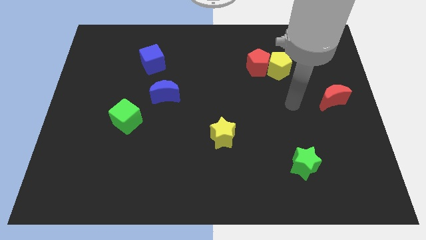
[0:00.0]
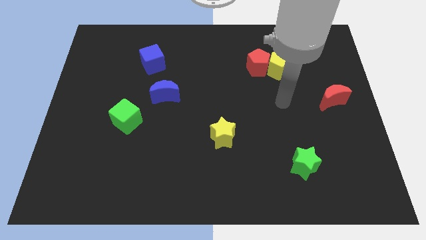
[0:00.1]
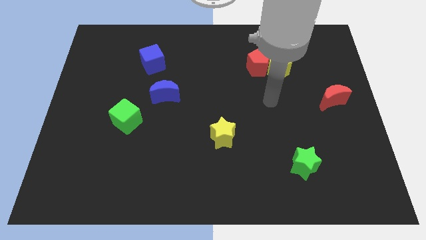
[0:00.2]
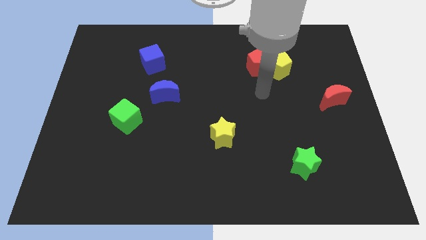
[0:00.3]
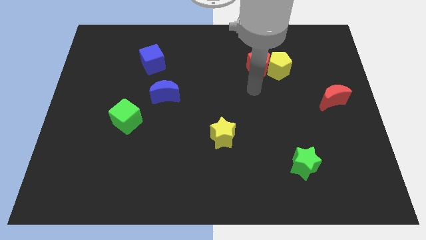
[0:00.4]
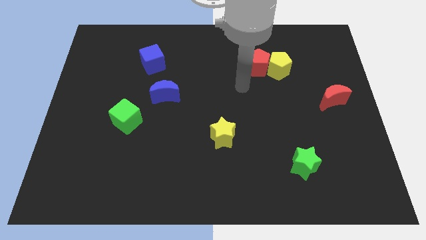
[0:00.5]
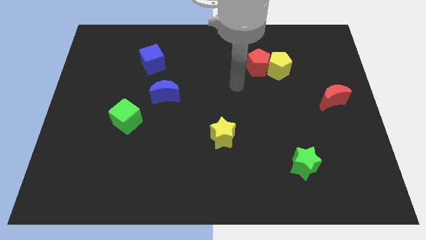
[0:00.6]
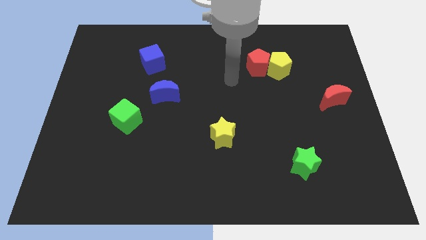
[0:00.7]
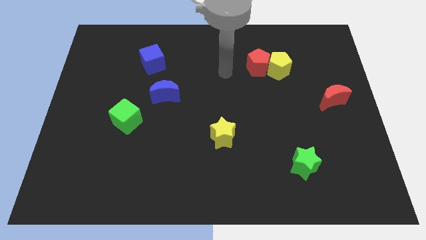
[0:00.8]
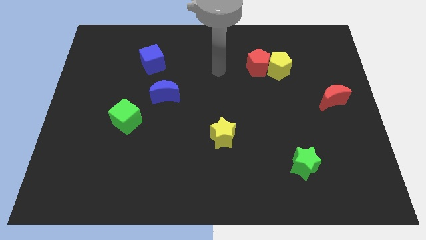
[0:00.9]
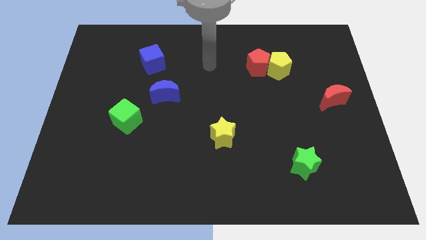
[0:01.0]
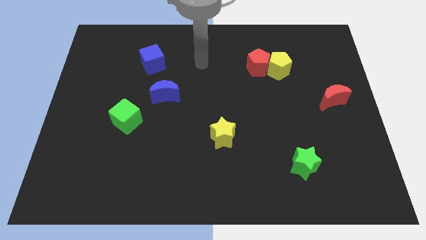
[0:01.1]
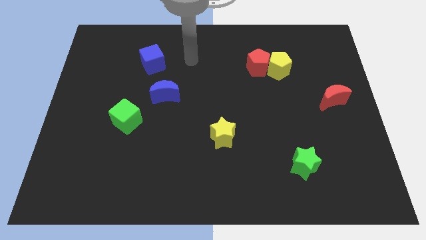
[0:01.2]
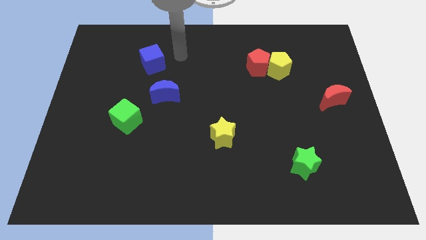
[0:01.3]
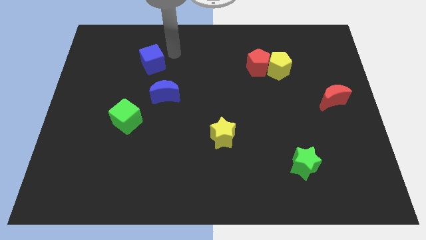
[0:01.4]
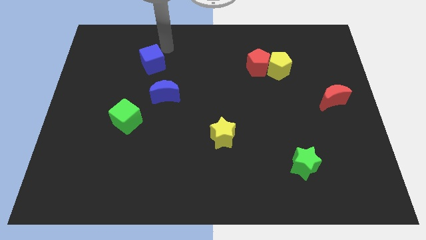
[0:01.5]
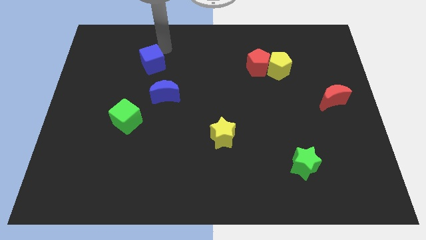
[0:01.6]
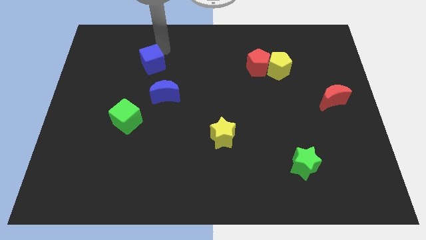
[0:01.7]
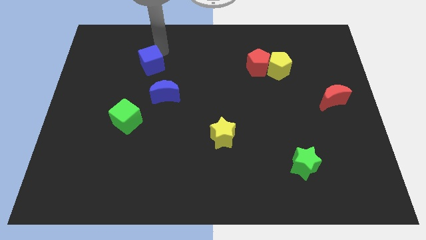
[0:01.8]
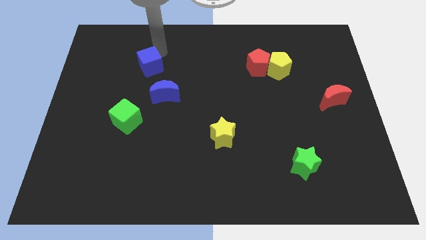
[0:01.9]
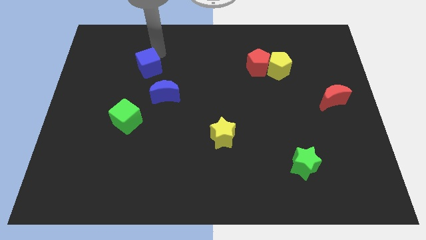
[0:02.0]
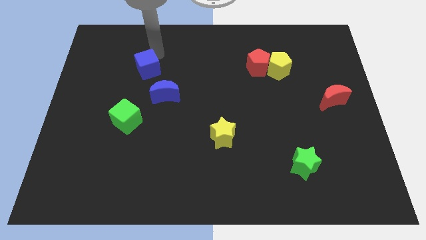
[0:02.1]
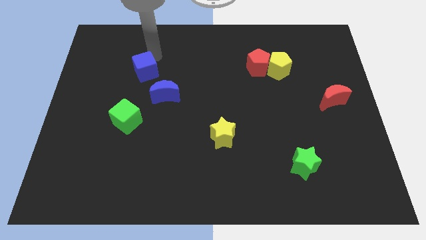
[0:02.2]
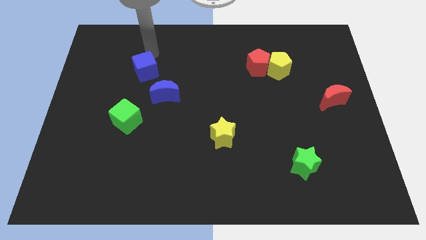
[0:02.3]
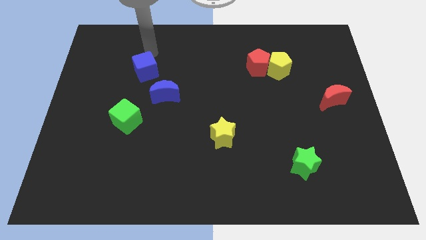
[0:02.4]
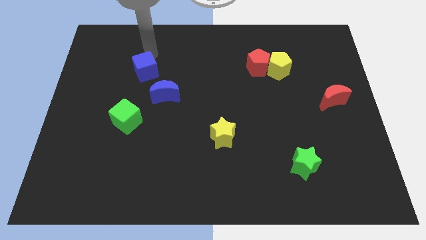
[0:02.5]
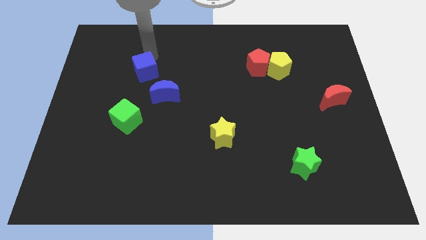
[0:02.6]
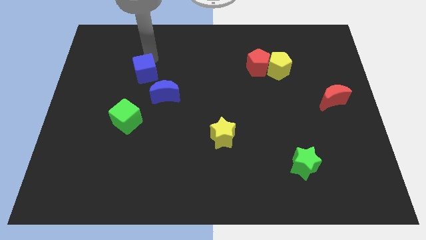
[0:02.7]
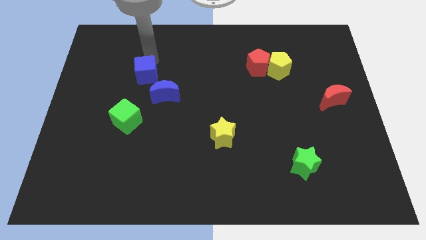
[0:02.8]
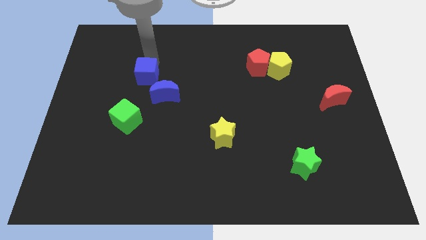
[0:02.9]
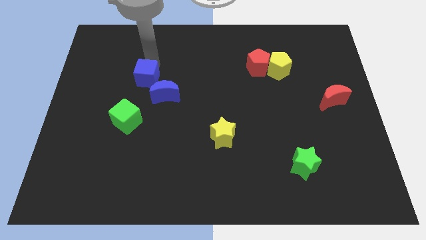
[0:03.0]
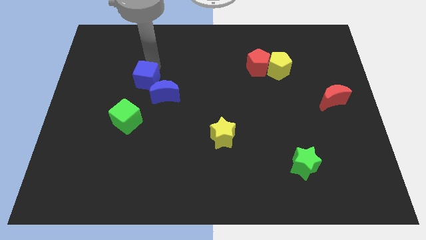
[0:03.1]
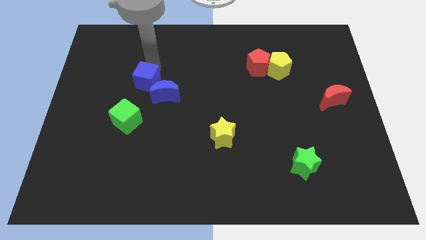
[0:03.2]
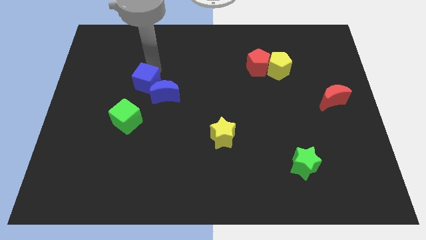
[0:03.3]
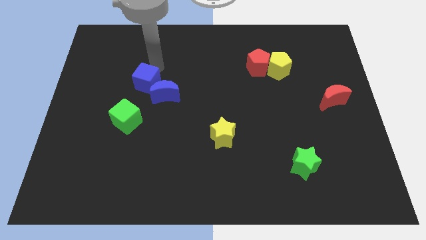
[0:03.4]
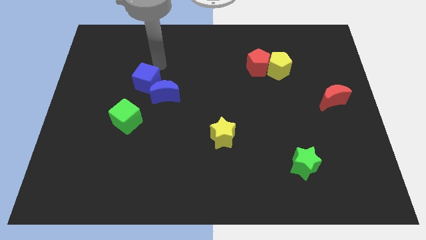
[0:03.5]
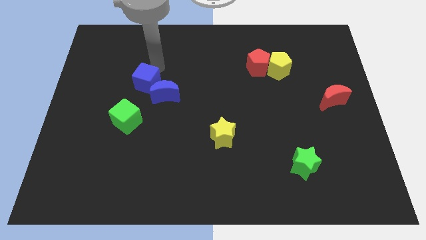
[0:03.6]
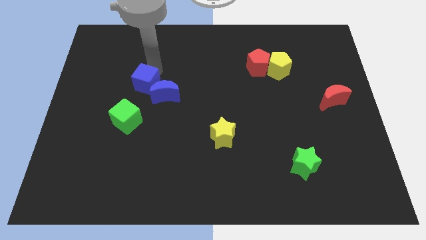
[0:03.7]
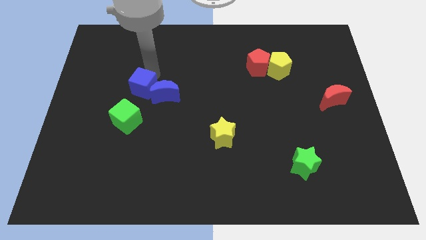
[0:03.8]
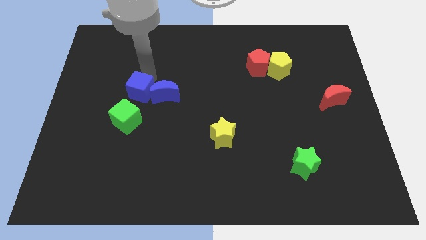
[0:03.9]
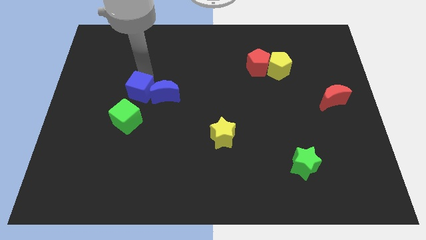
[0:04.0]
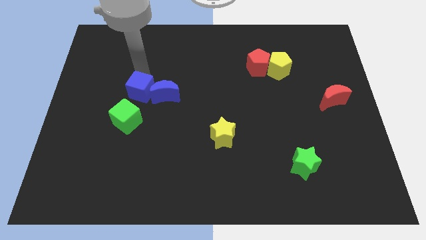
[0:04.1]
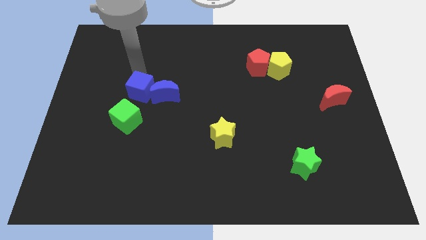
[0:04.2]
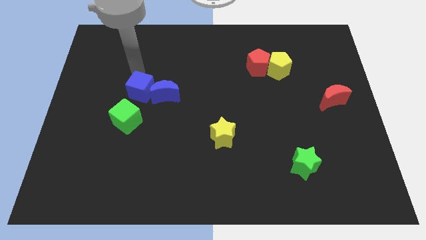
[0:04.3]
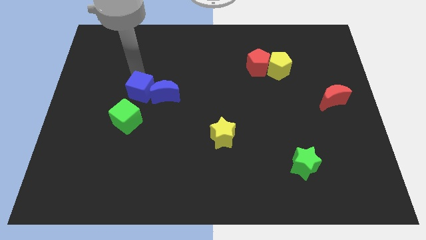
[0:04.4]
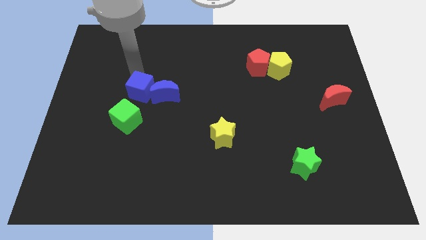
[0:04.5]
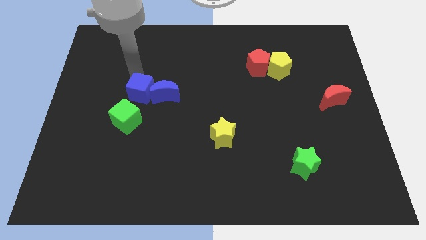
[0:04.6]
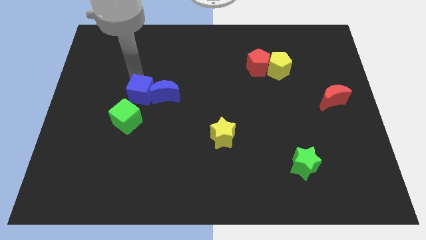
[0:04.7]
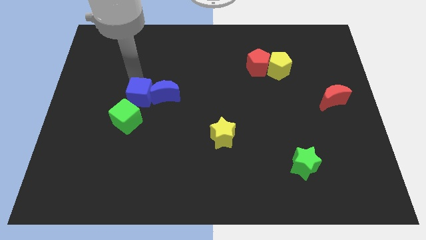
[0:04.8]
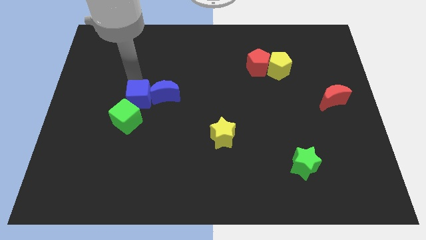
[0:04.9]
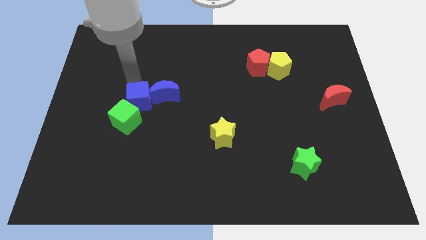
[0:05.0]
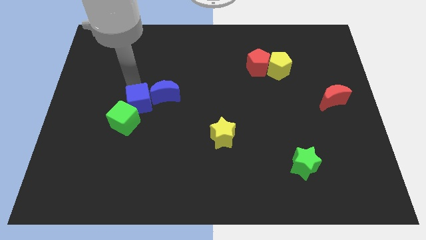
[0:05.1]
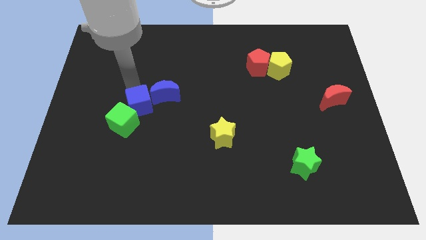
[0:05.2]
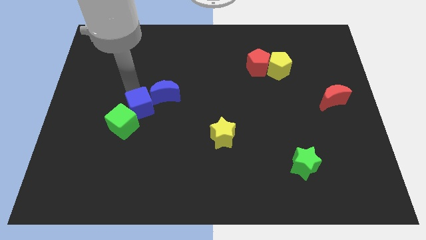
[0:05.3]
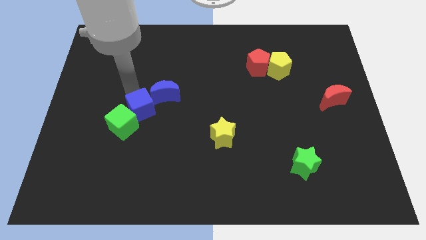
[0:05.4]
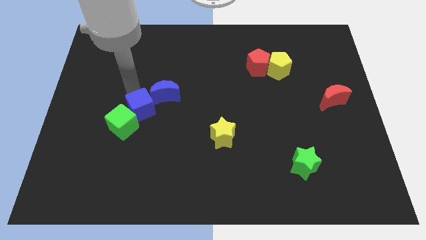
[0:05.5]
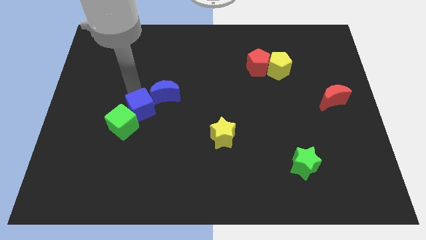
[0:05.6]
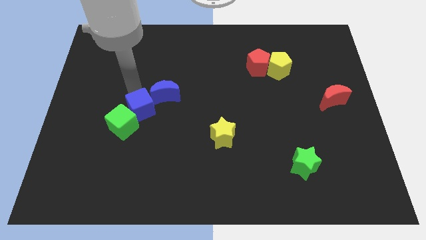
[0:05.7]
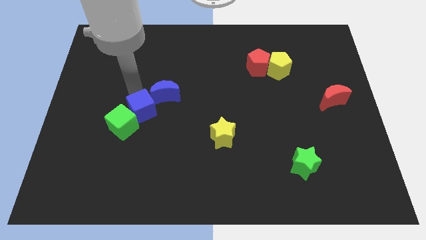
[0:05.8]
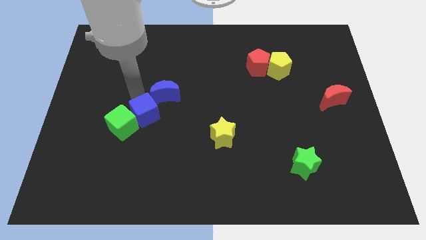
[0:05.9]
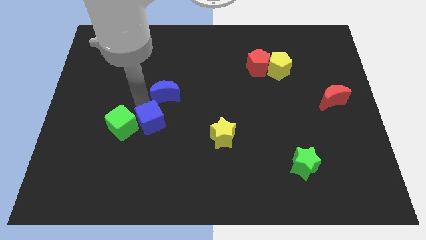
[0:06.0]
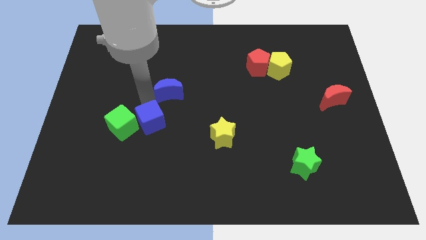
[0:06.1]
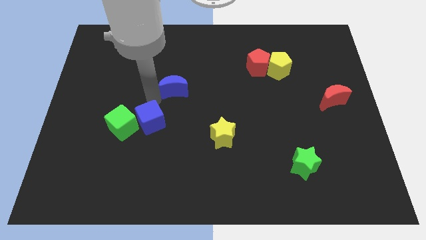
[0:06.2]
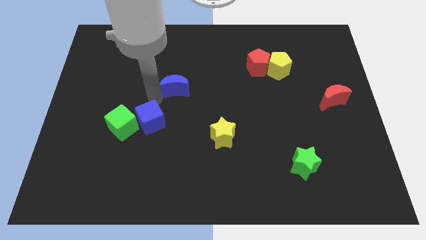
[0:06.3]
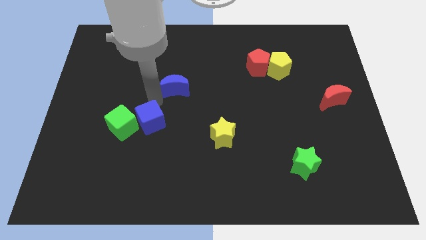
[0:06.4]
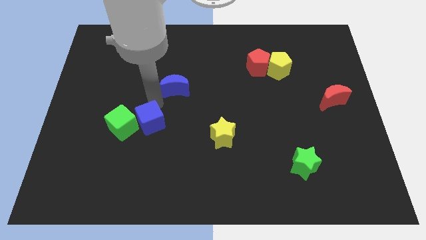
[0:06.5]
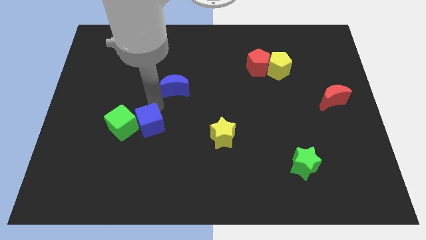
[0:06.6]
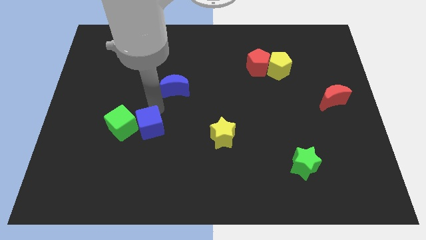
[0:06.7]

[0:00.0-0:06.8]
slide the blue cube downwards

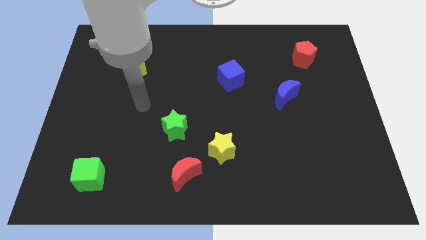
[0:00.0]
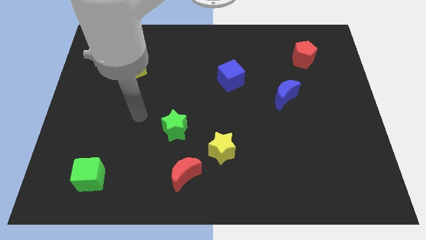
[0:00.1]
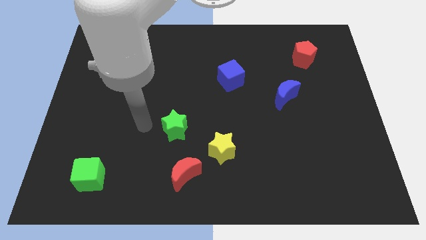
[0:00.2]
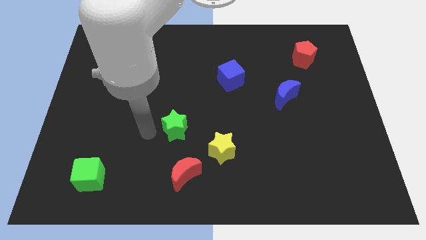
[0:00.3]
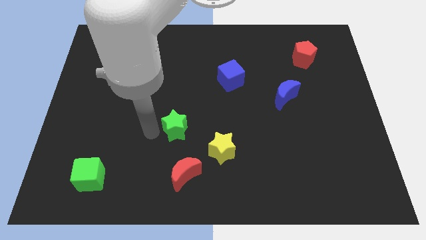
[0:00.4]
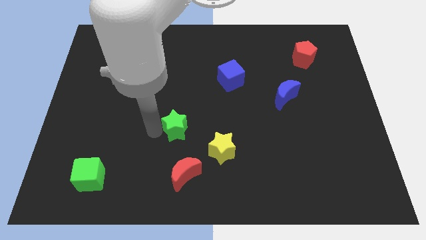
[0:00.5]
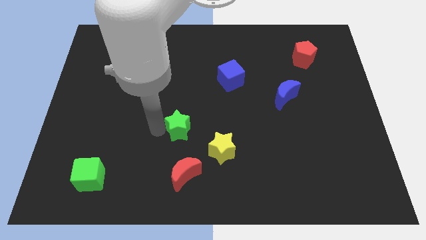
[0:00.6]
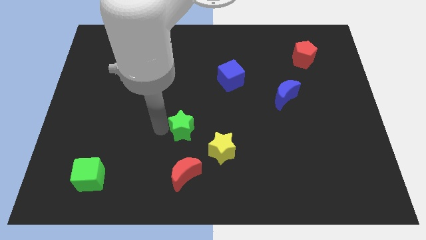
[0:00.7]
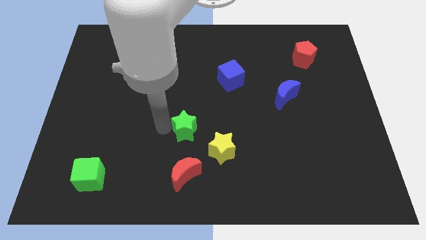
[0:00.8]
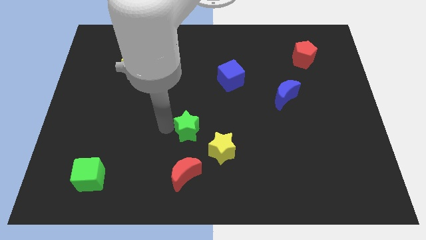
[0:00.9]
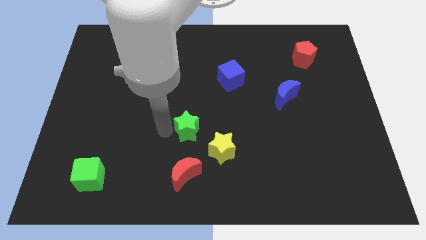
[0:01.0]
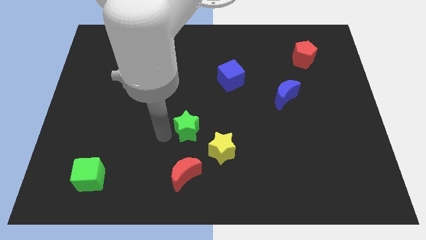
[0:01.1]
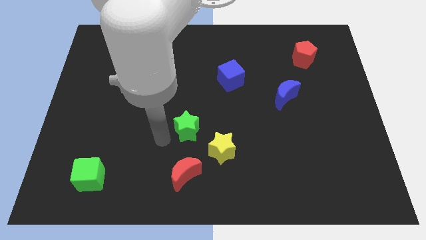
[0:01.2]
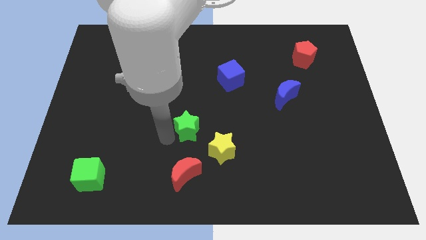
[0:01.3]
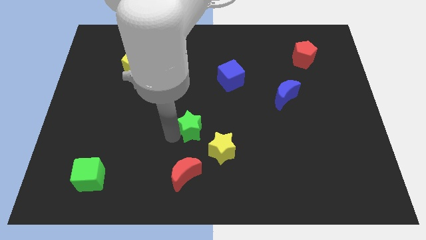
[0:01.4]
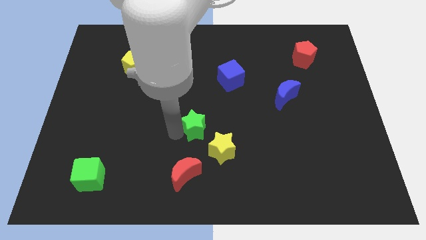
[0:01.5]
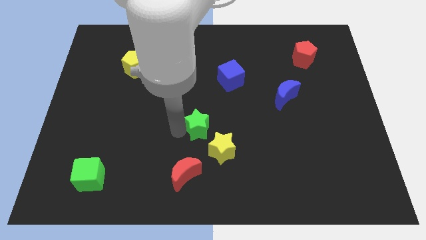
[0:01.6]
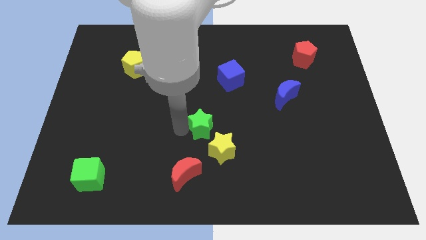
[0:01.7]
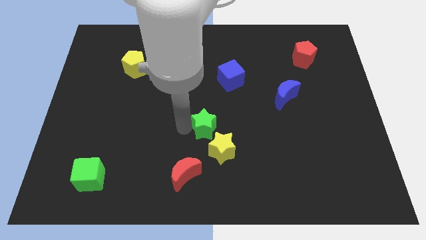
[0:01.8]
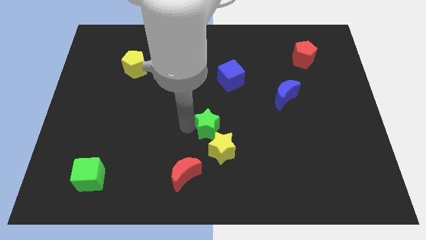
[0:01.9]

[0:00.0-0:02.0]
move the green star a bit right
